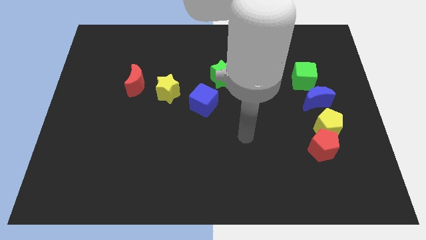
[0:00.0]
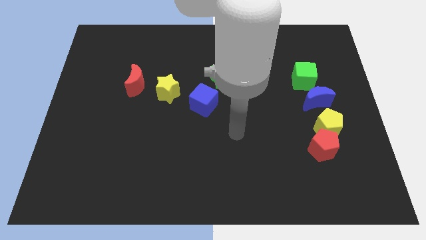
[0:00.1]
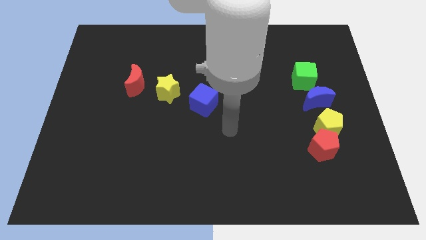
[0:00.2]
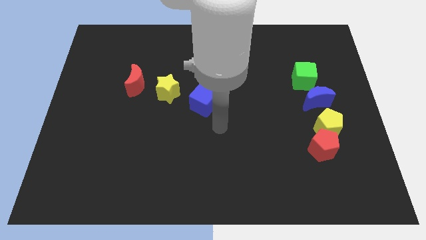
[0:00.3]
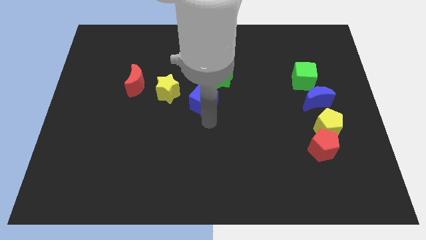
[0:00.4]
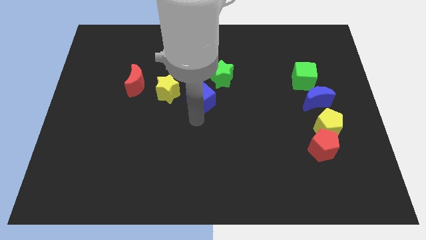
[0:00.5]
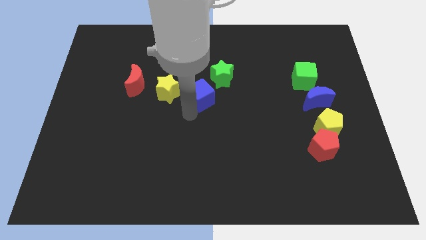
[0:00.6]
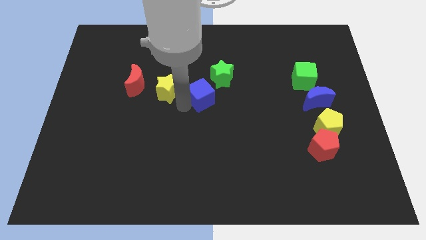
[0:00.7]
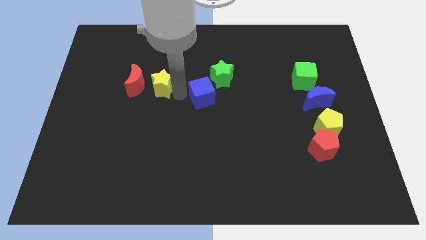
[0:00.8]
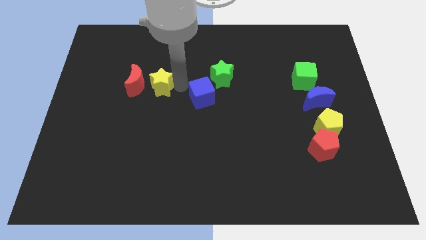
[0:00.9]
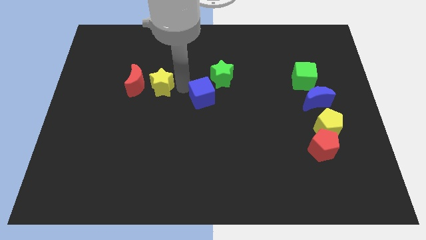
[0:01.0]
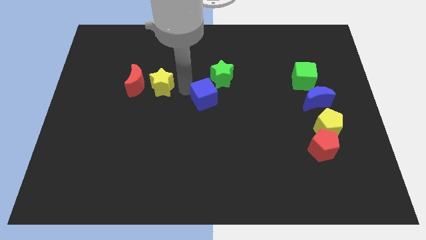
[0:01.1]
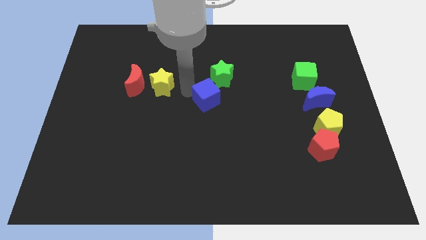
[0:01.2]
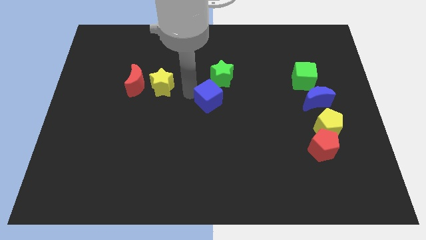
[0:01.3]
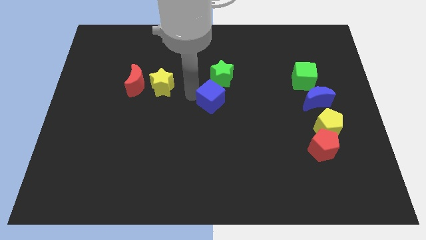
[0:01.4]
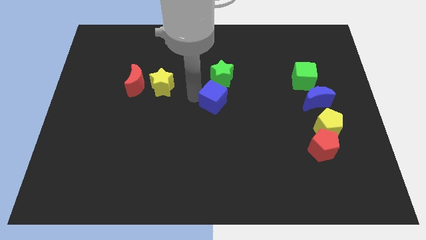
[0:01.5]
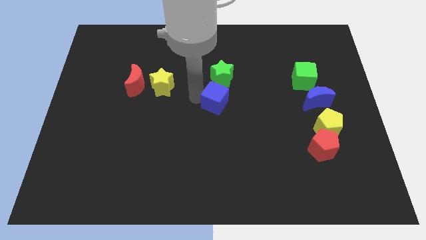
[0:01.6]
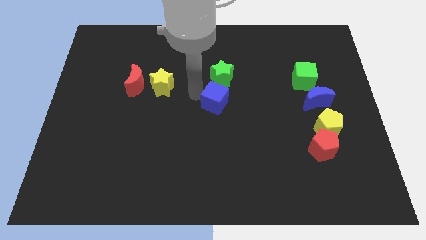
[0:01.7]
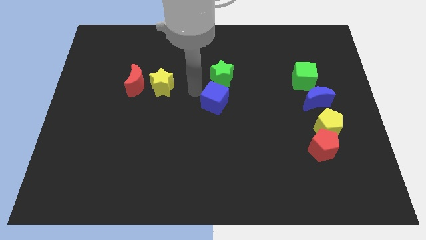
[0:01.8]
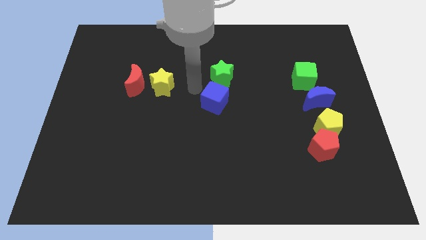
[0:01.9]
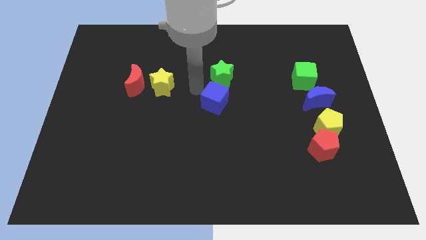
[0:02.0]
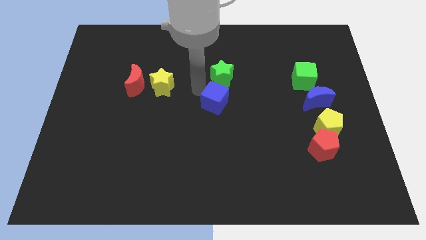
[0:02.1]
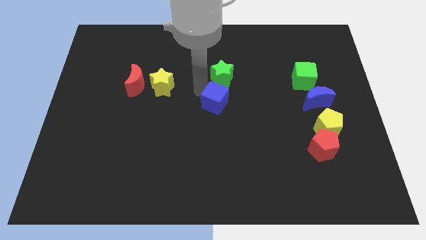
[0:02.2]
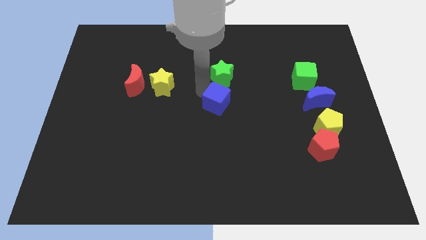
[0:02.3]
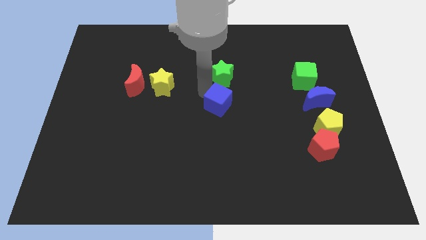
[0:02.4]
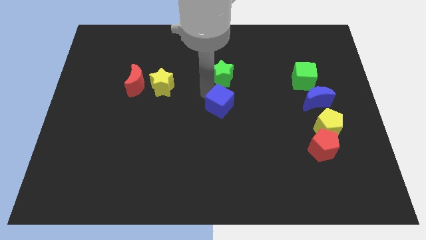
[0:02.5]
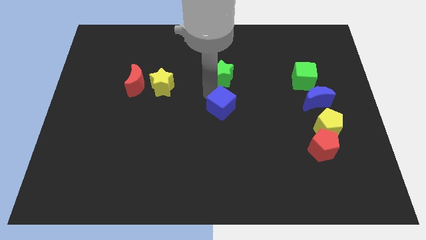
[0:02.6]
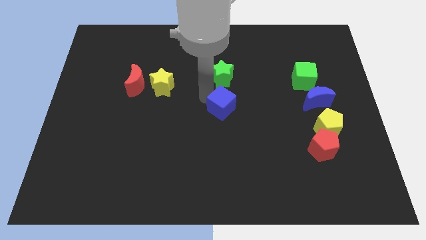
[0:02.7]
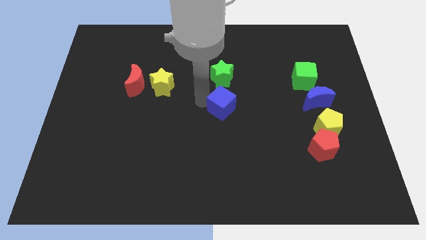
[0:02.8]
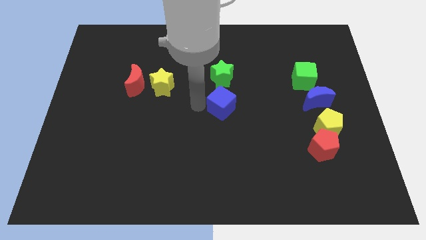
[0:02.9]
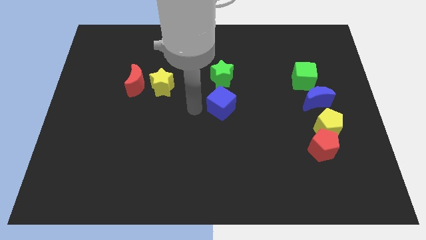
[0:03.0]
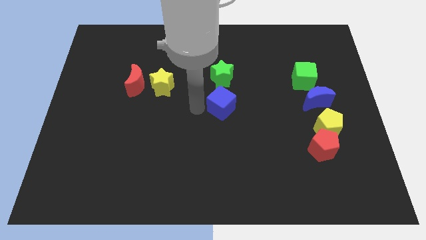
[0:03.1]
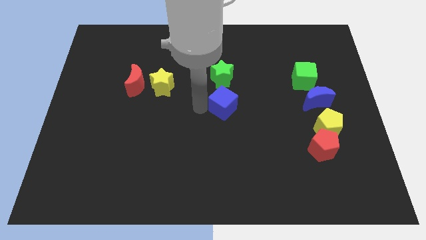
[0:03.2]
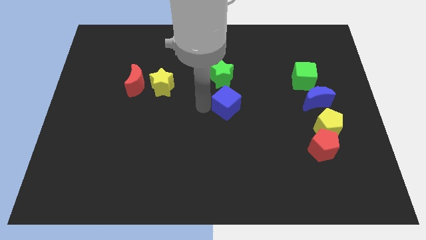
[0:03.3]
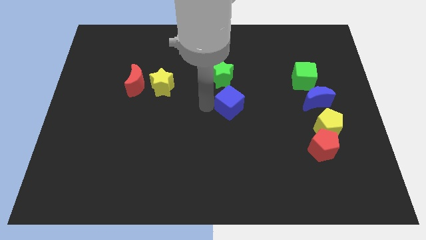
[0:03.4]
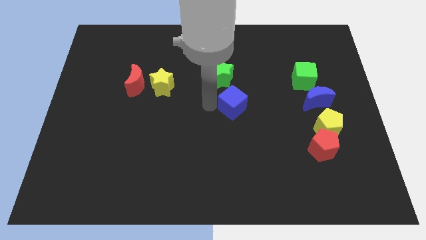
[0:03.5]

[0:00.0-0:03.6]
slide the blue cube right slightly

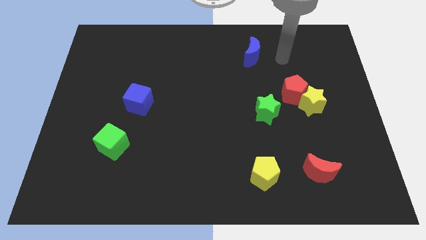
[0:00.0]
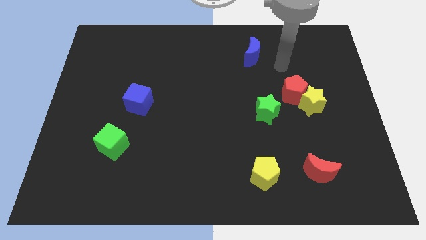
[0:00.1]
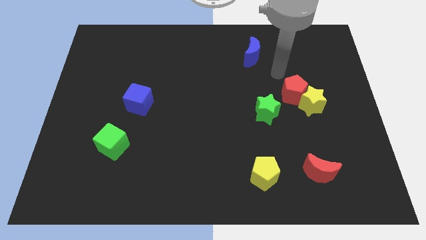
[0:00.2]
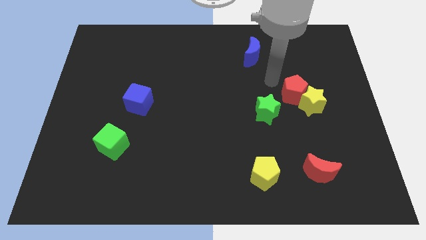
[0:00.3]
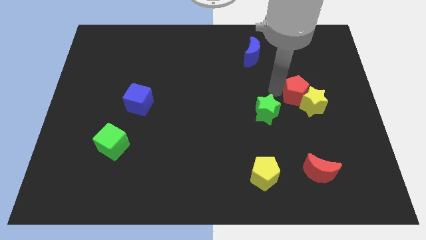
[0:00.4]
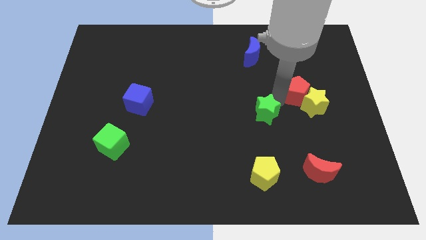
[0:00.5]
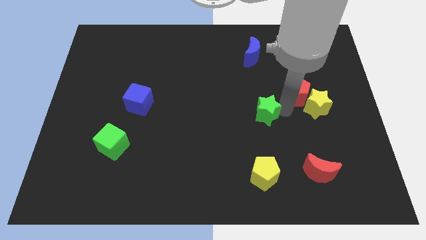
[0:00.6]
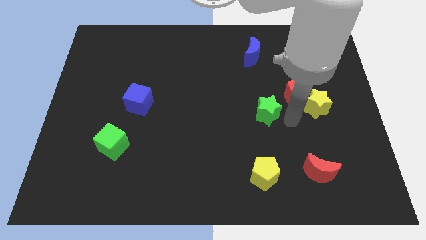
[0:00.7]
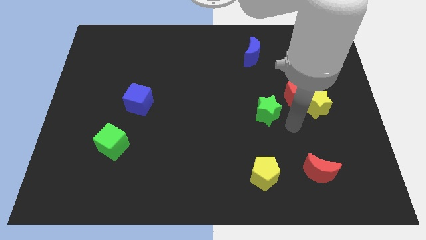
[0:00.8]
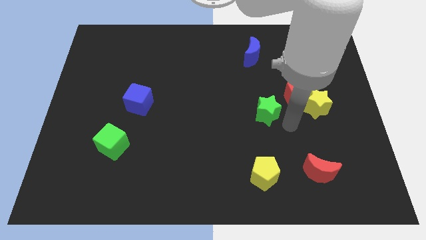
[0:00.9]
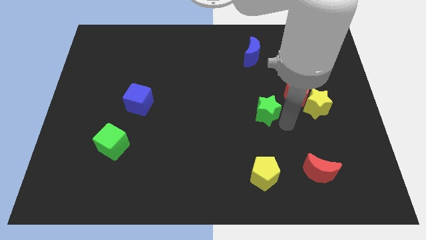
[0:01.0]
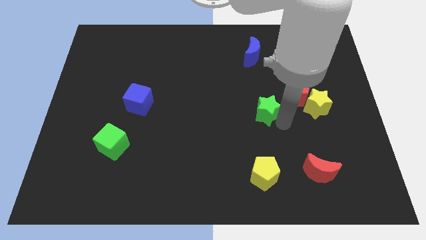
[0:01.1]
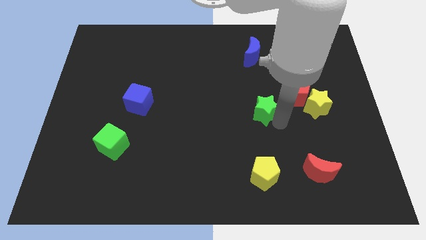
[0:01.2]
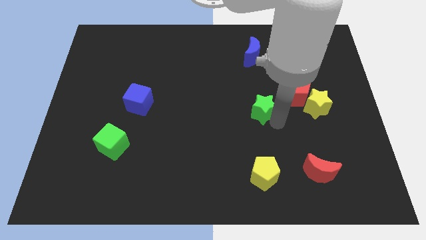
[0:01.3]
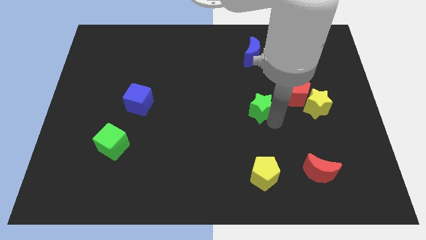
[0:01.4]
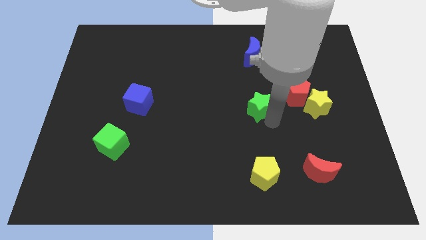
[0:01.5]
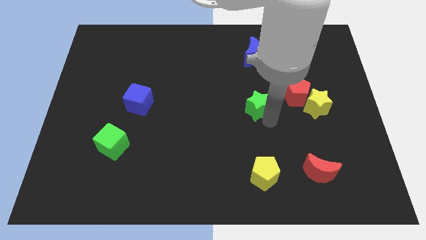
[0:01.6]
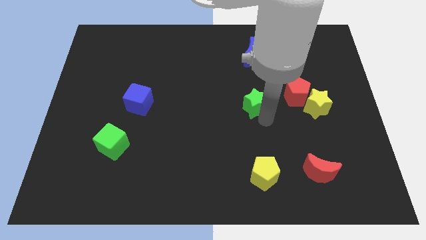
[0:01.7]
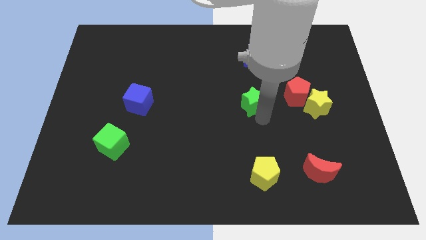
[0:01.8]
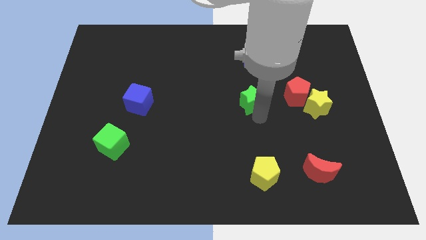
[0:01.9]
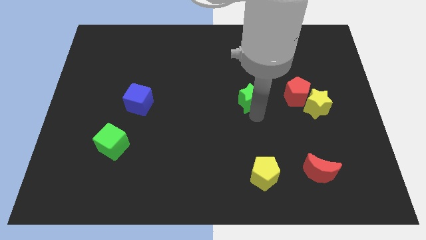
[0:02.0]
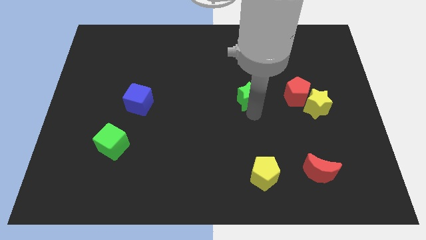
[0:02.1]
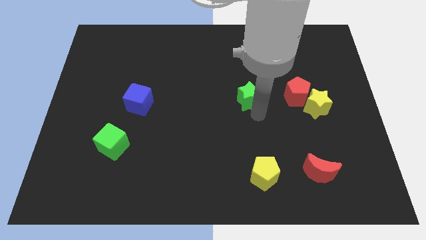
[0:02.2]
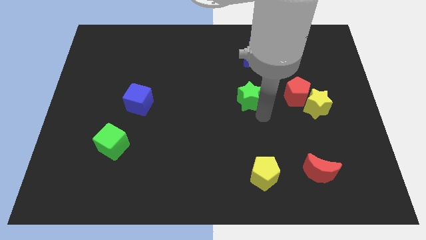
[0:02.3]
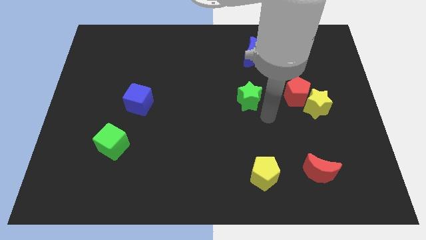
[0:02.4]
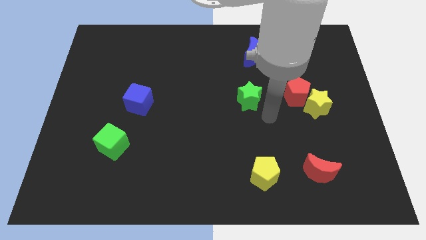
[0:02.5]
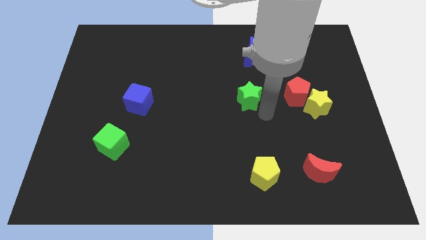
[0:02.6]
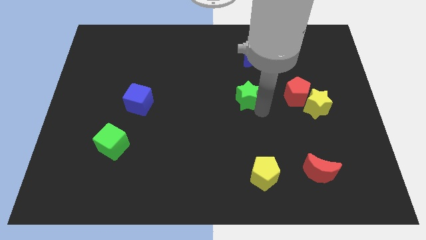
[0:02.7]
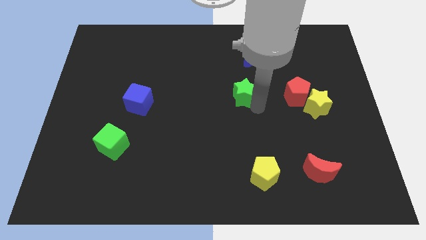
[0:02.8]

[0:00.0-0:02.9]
move the green star upwards and to the left diagonally somewhat

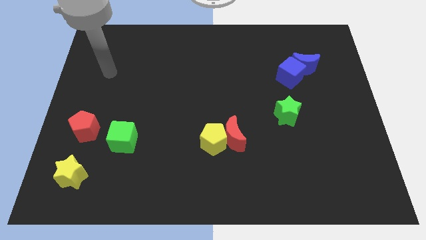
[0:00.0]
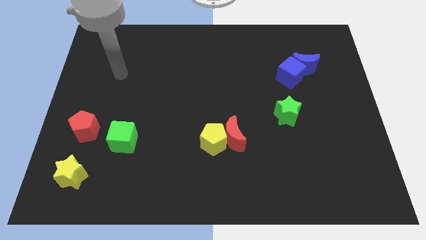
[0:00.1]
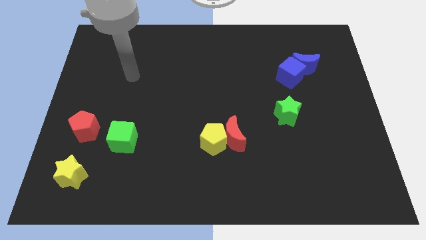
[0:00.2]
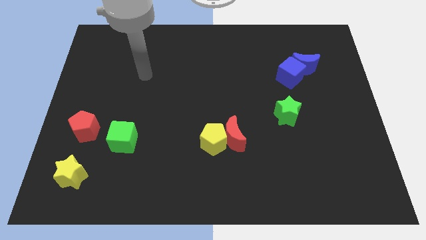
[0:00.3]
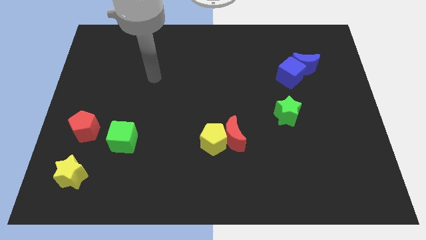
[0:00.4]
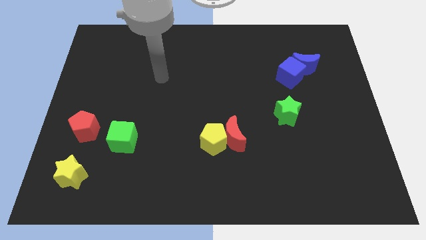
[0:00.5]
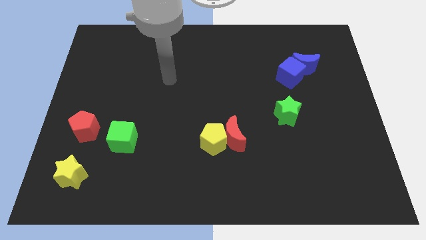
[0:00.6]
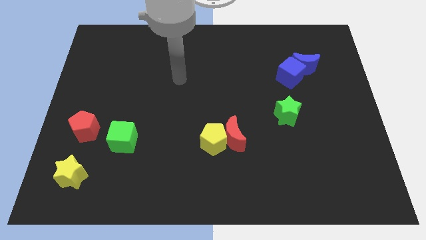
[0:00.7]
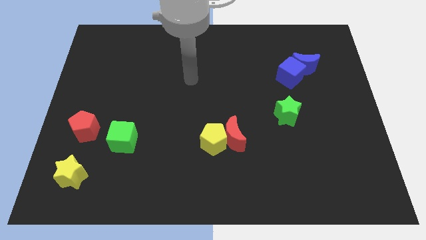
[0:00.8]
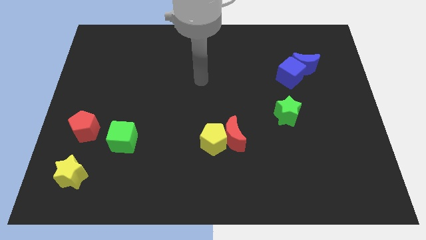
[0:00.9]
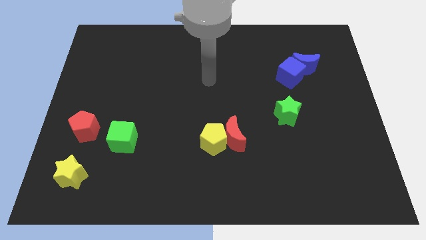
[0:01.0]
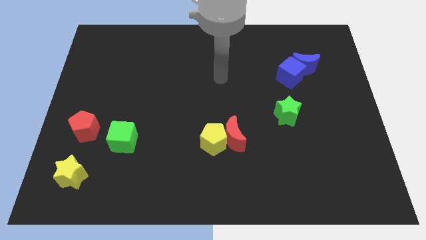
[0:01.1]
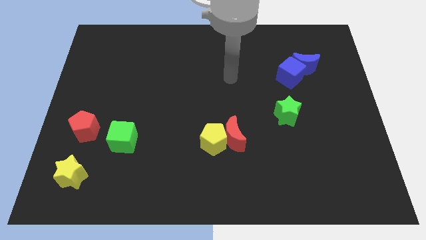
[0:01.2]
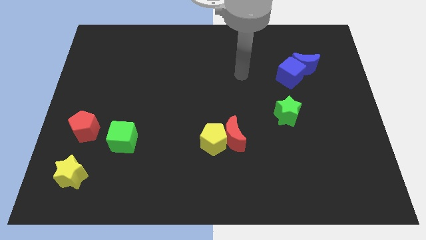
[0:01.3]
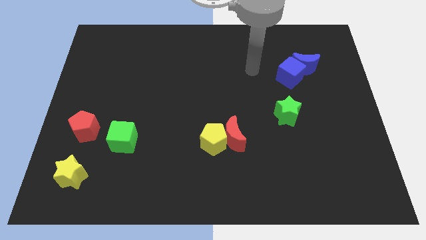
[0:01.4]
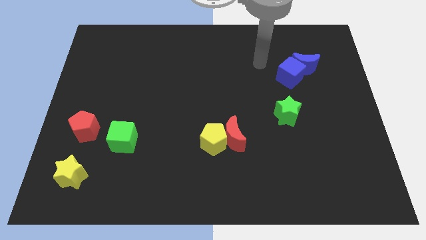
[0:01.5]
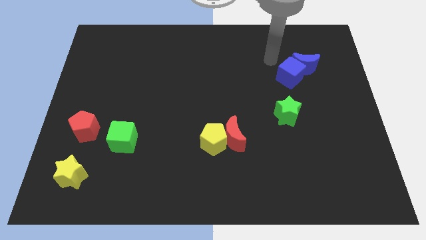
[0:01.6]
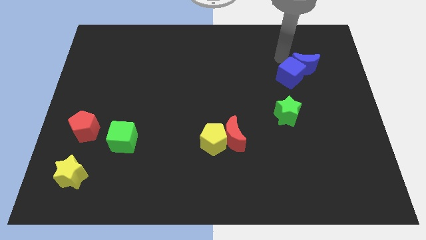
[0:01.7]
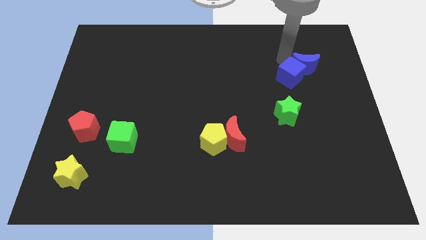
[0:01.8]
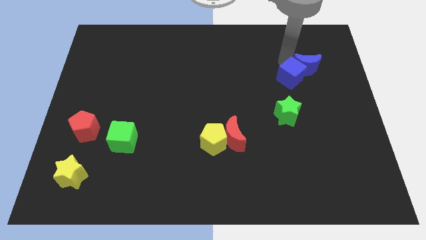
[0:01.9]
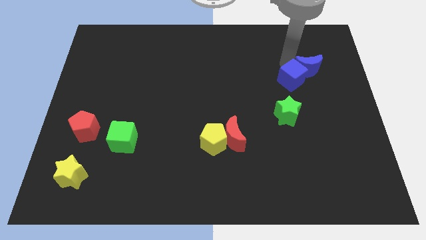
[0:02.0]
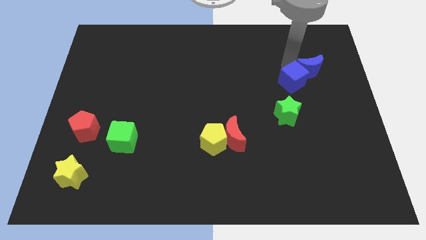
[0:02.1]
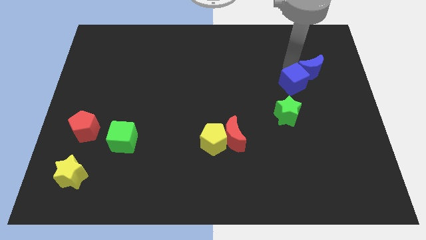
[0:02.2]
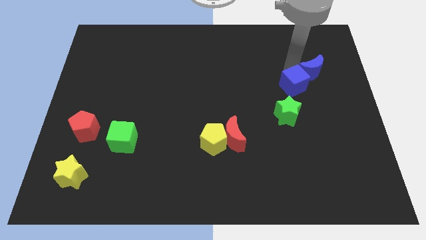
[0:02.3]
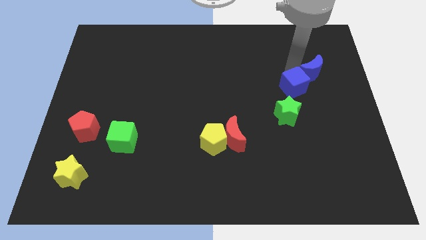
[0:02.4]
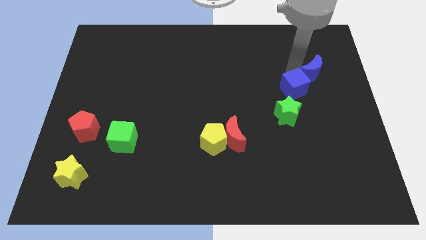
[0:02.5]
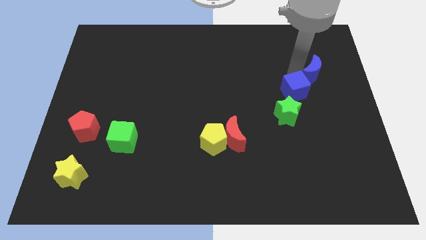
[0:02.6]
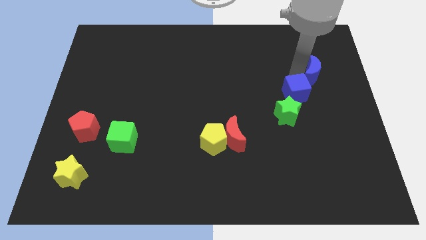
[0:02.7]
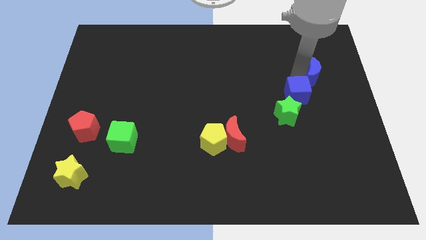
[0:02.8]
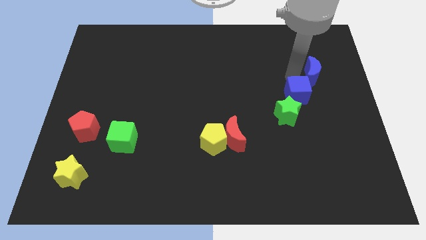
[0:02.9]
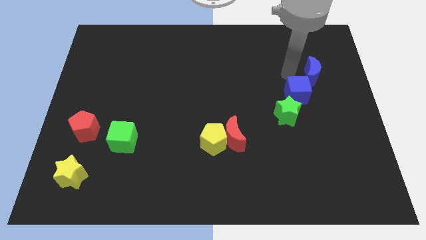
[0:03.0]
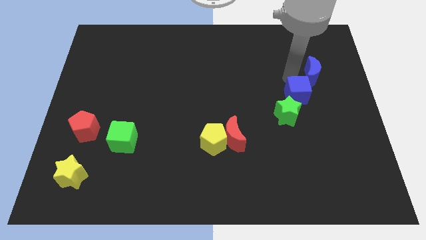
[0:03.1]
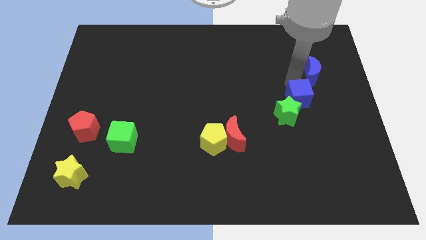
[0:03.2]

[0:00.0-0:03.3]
push the blue cube a little bit down
